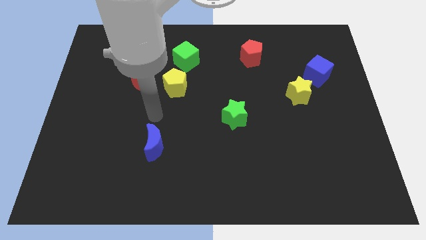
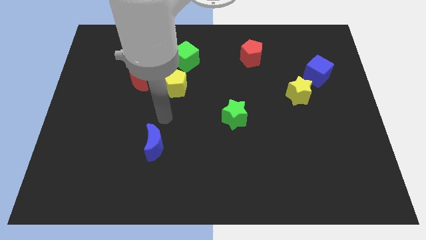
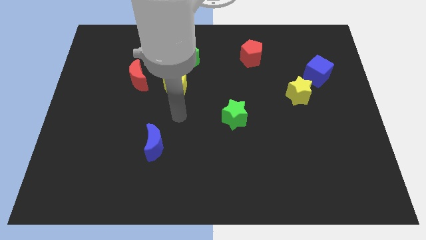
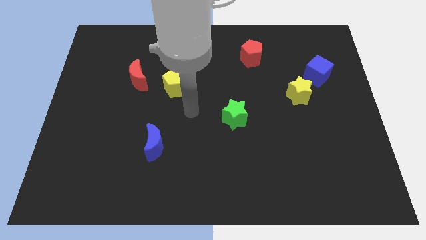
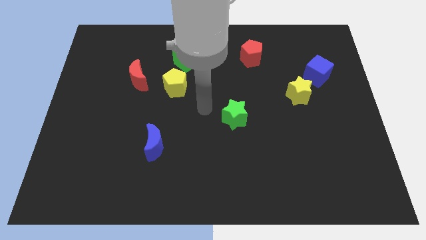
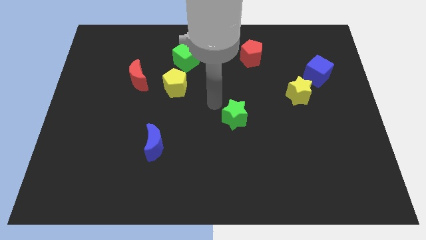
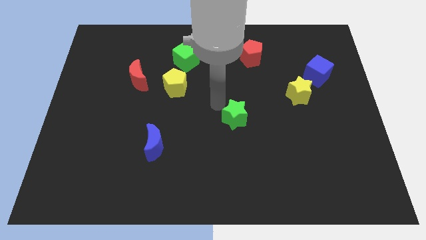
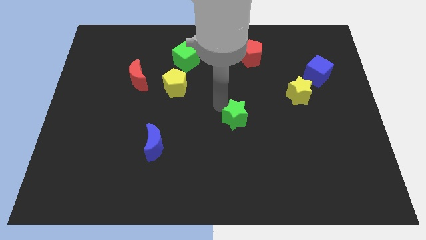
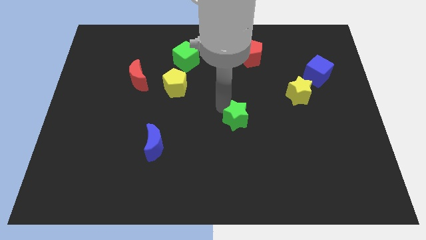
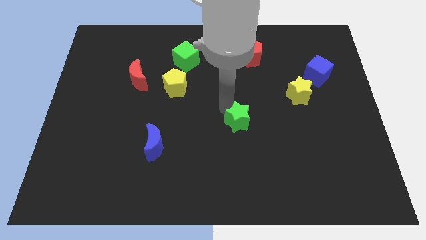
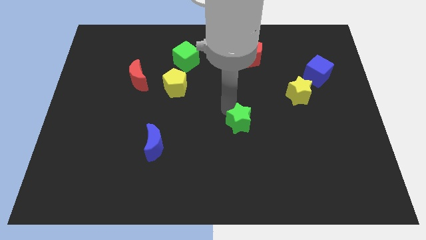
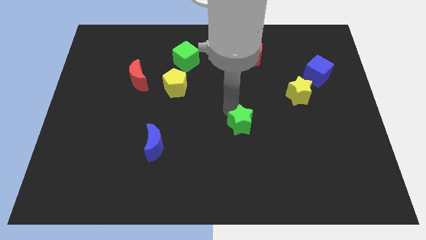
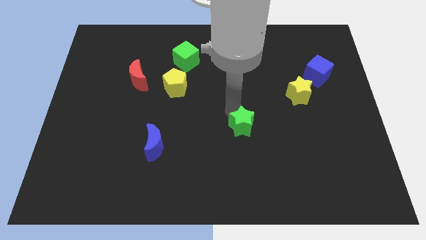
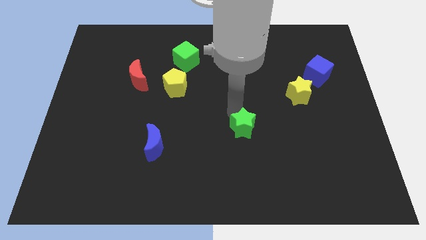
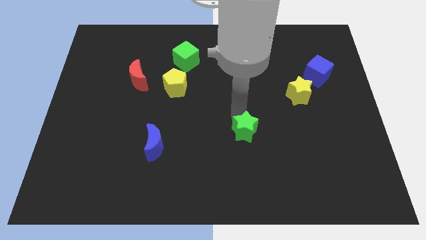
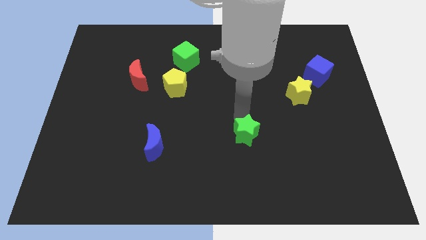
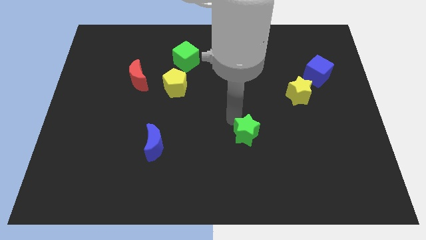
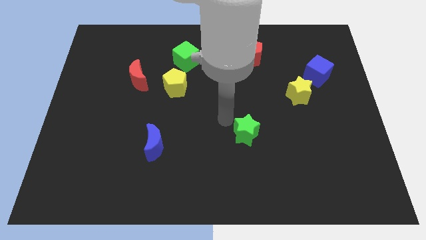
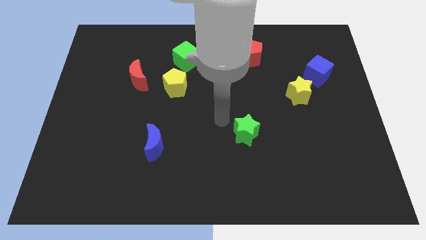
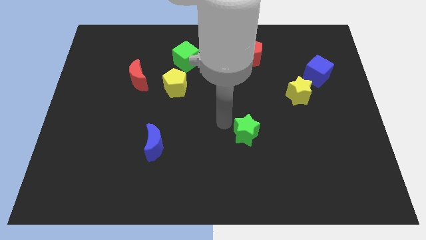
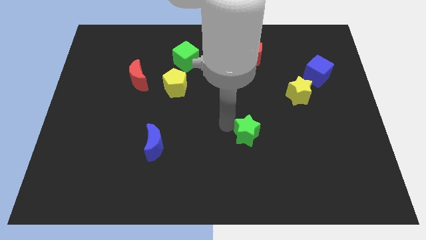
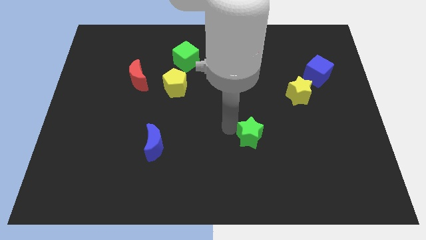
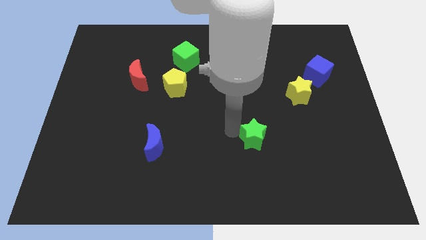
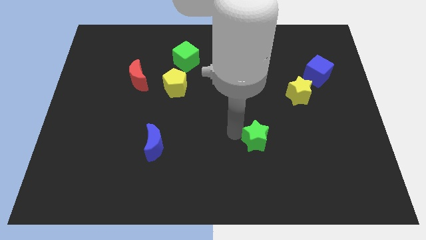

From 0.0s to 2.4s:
push the green star somewhat down and to the right

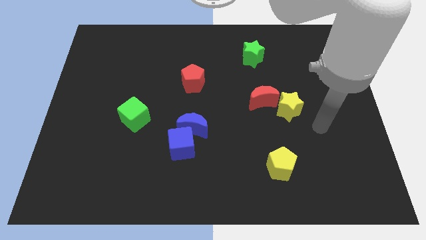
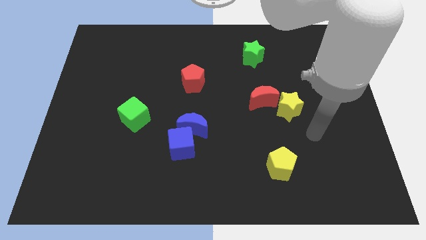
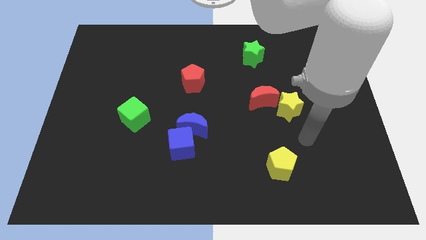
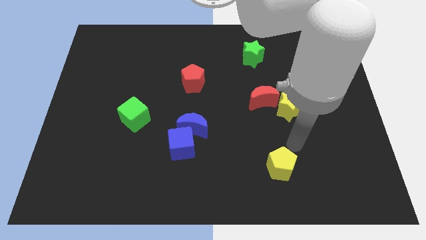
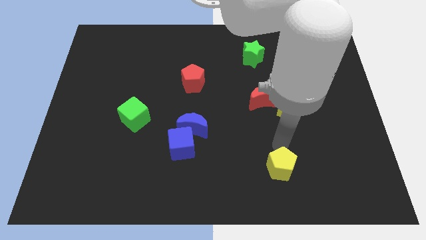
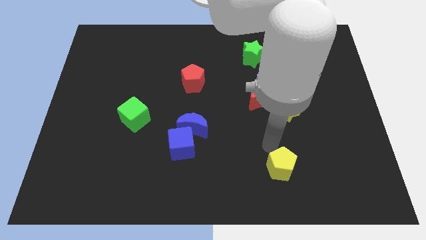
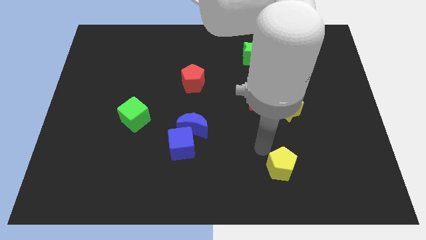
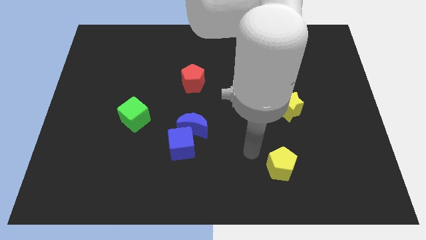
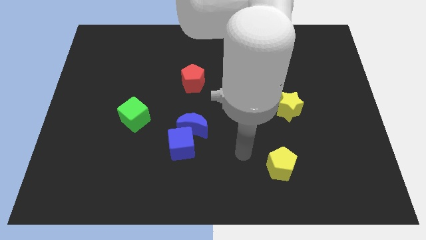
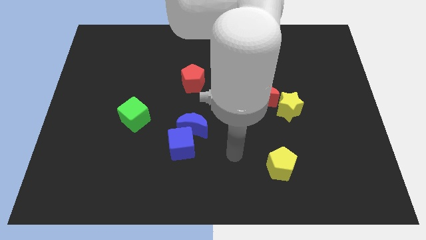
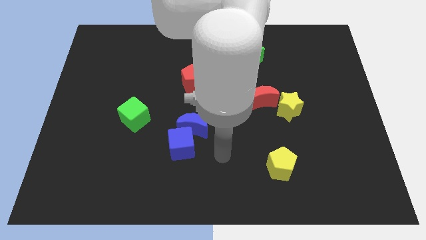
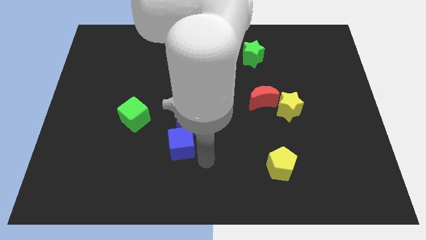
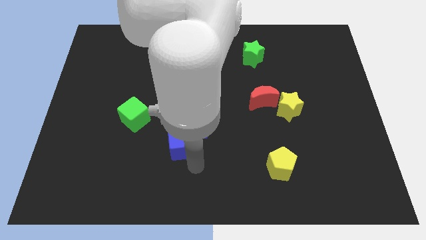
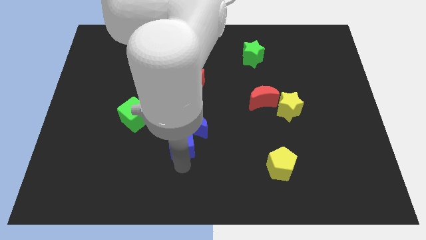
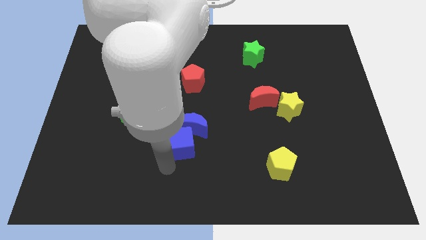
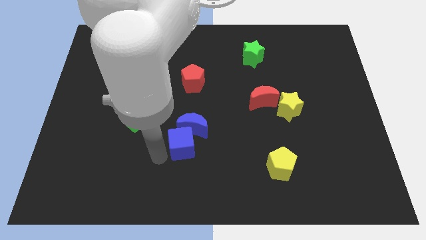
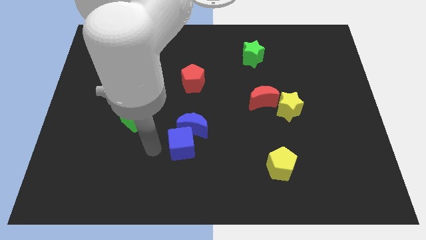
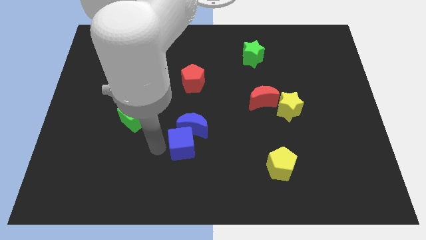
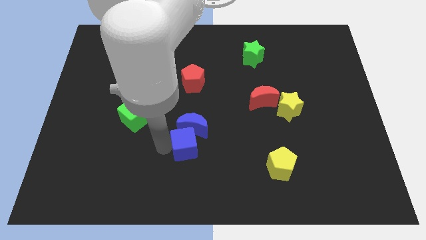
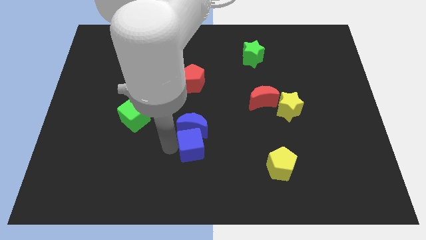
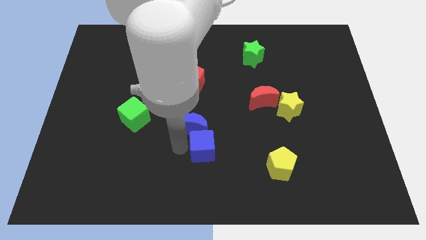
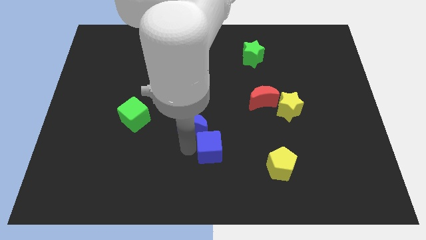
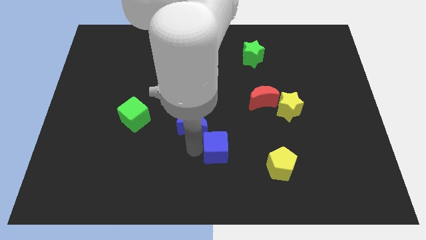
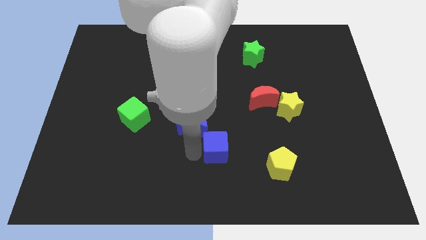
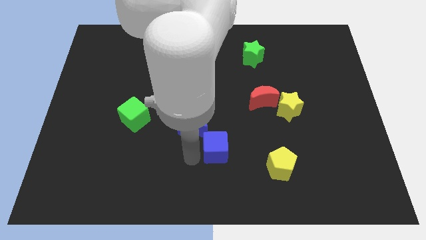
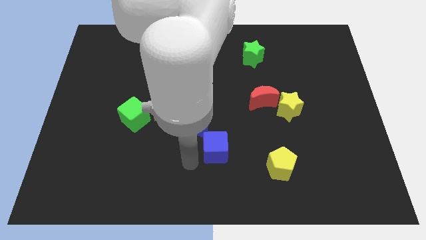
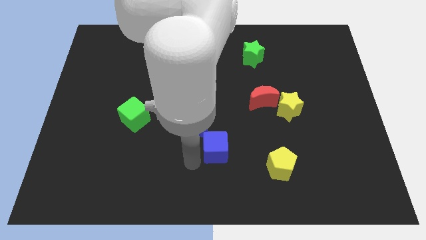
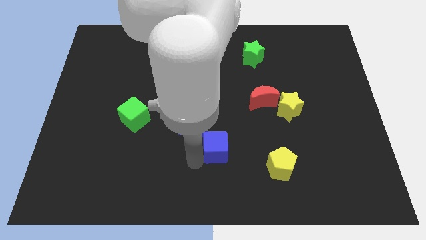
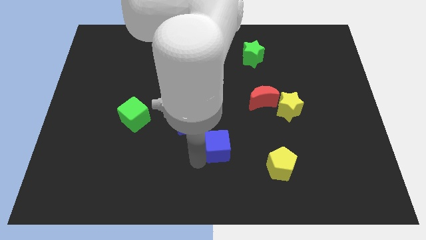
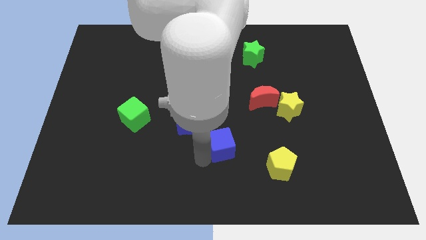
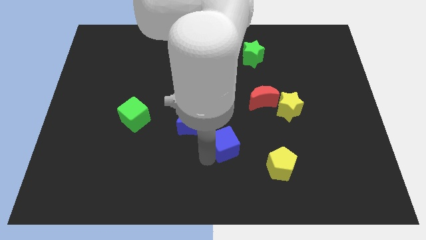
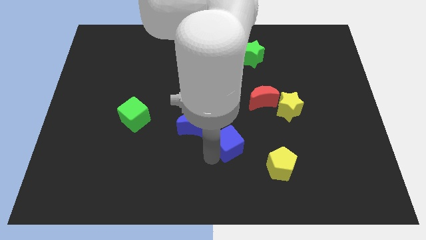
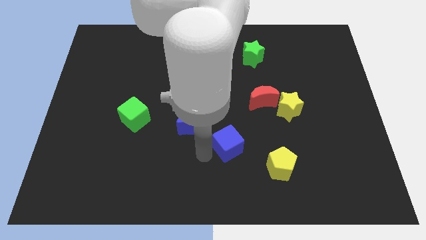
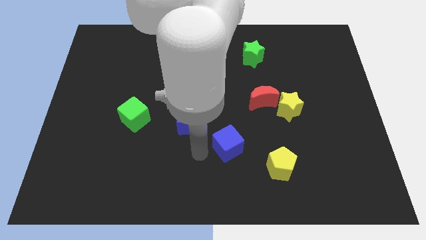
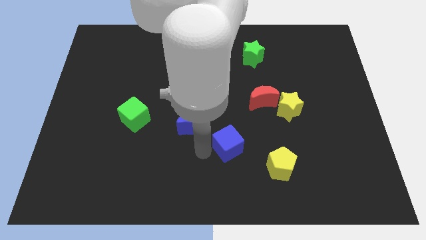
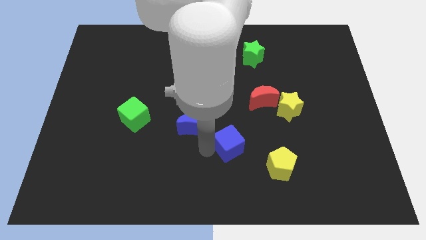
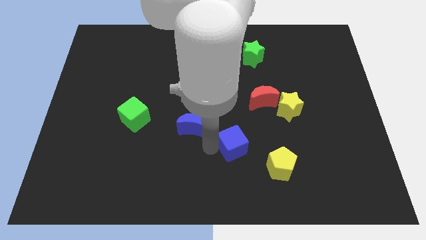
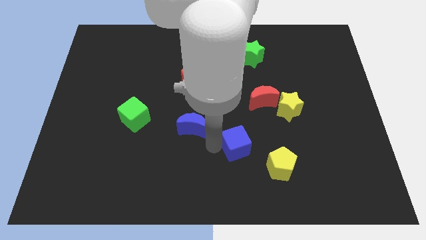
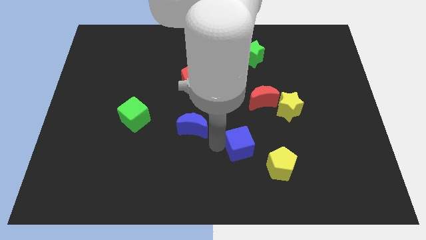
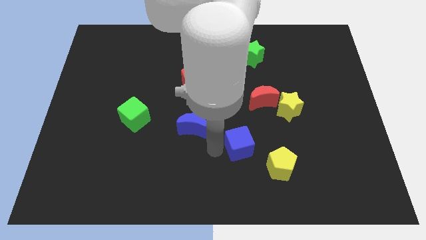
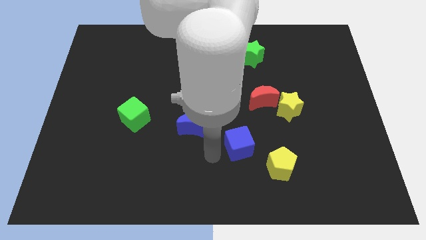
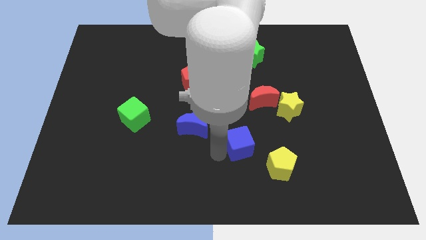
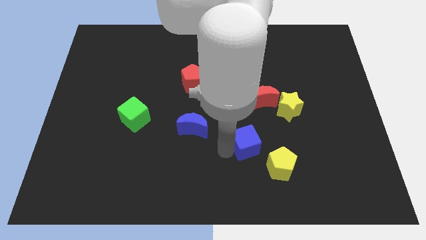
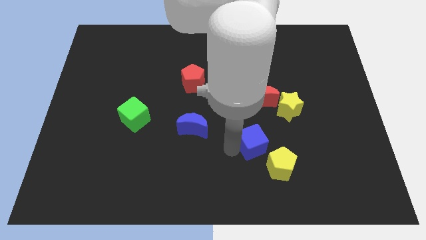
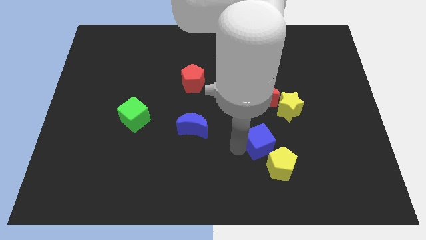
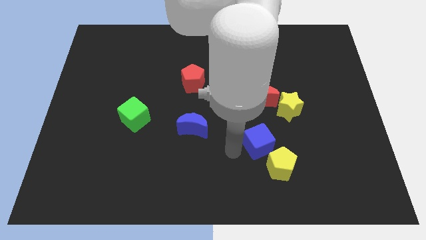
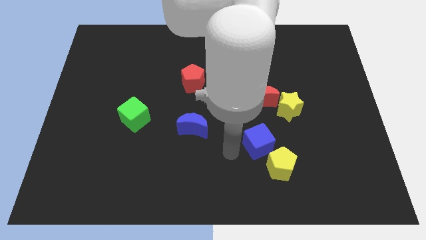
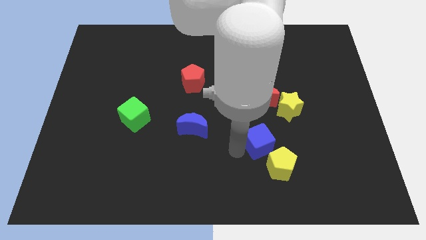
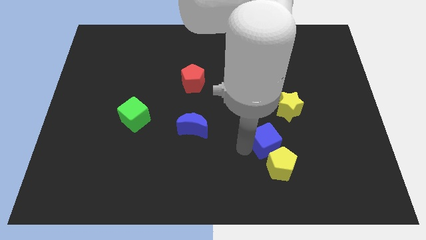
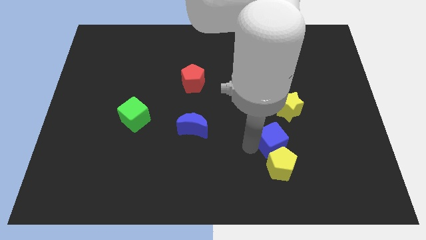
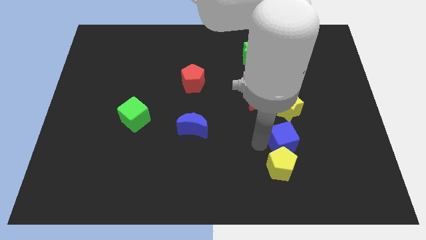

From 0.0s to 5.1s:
push the blue cube to the right

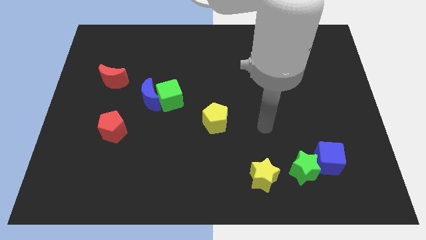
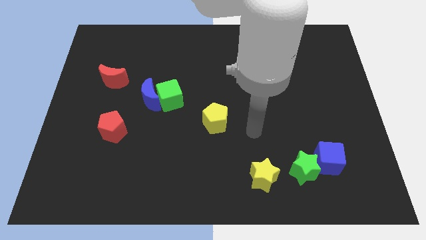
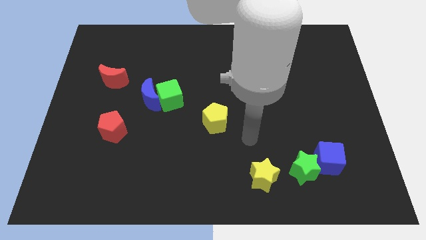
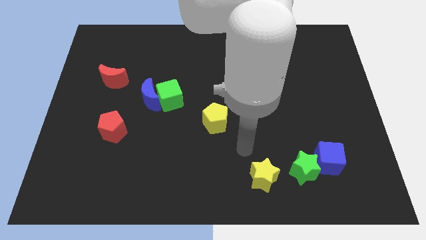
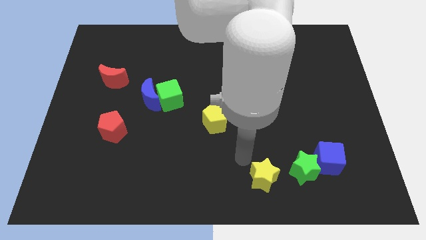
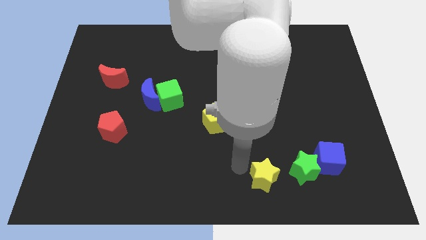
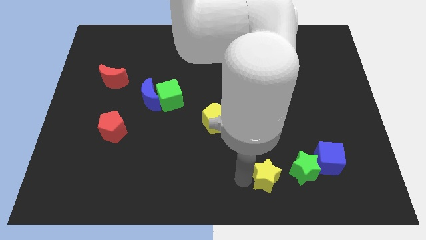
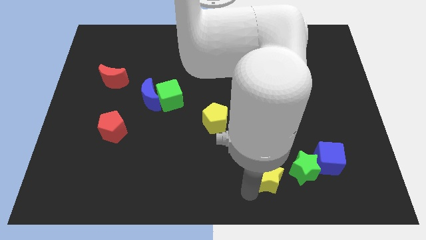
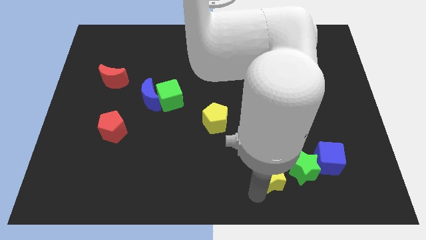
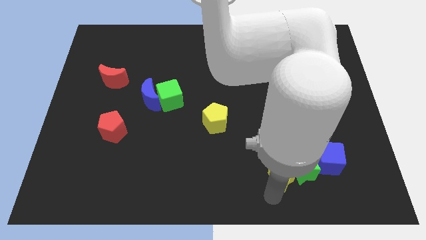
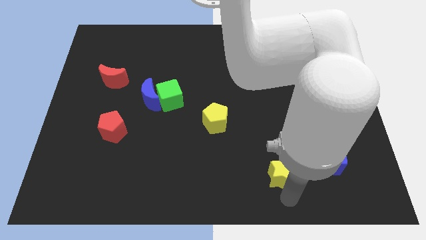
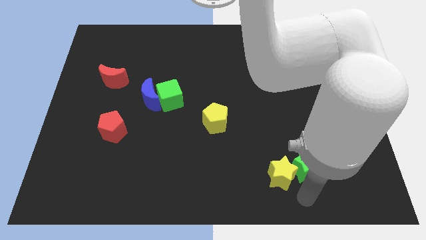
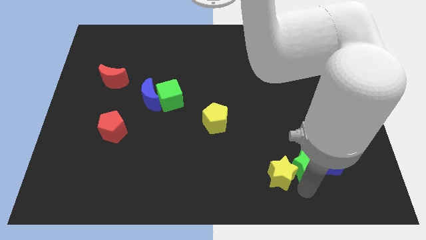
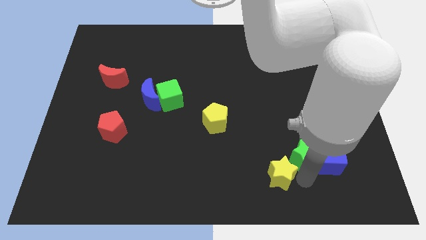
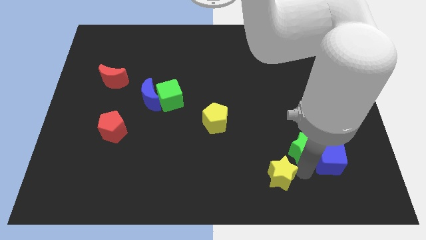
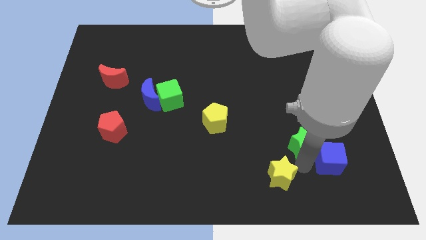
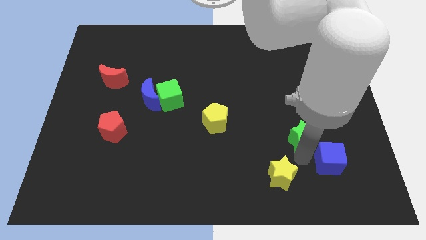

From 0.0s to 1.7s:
slide the green star up somewhat
